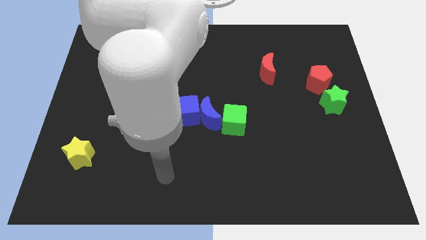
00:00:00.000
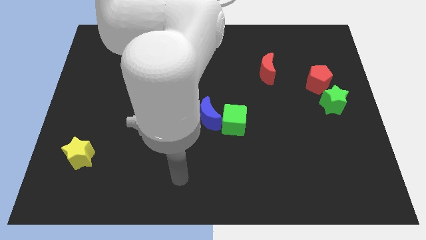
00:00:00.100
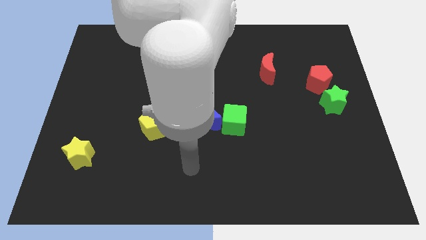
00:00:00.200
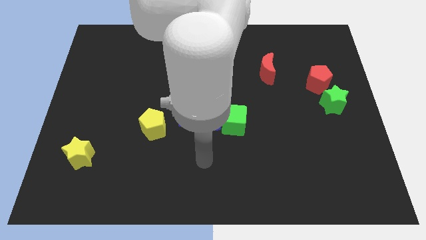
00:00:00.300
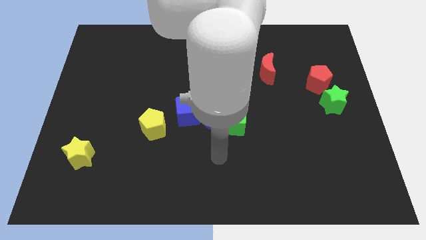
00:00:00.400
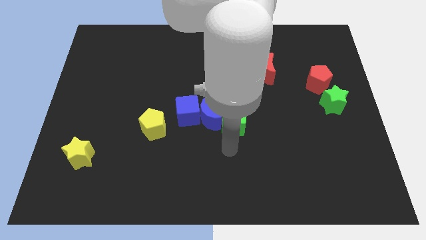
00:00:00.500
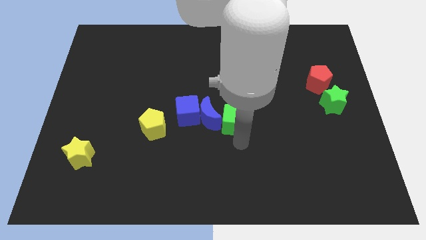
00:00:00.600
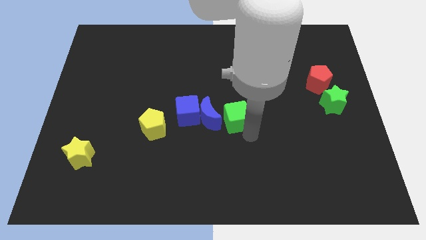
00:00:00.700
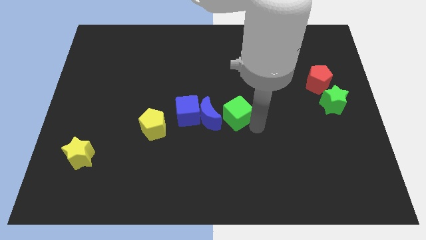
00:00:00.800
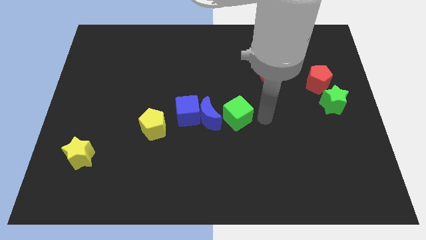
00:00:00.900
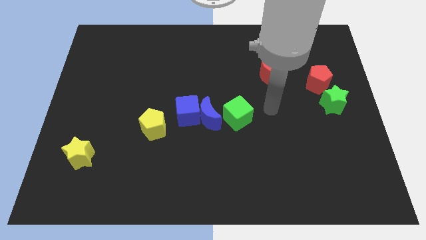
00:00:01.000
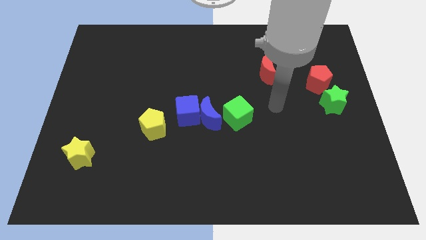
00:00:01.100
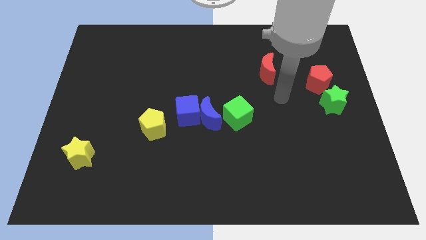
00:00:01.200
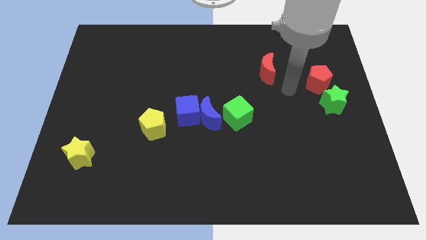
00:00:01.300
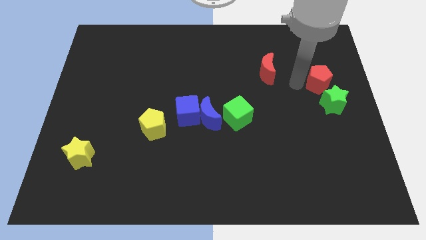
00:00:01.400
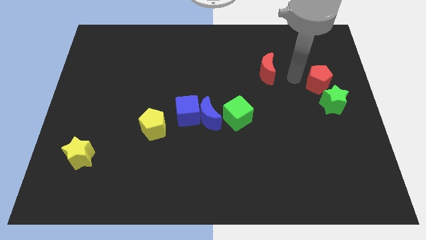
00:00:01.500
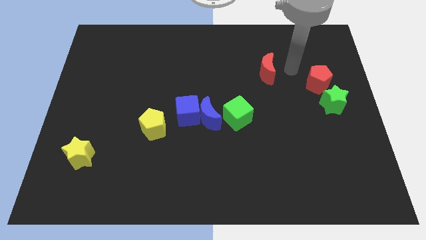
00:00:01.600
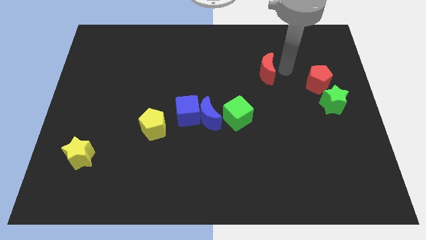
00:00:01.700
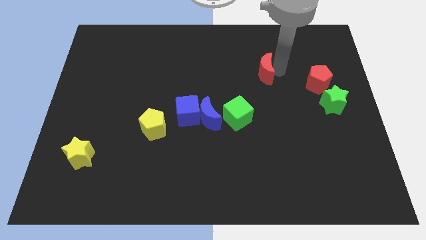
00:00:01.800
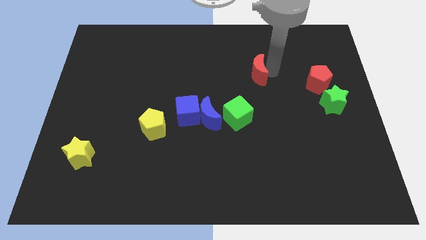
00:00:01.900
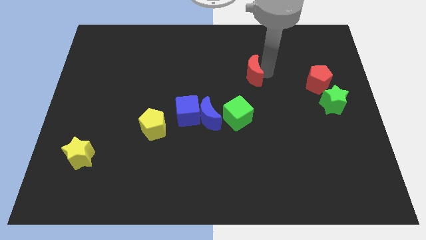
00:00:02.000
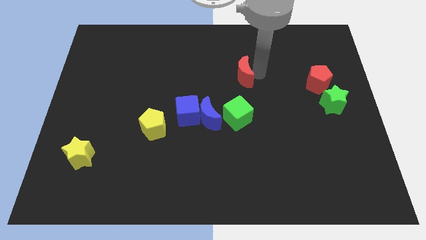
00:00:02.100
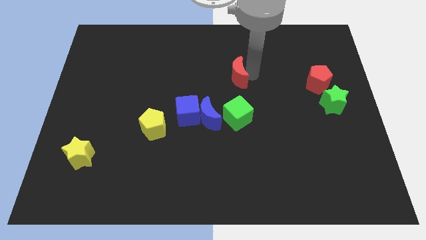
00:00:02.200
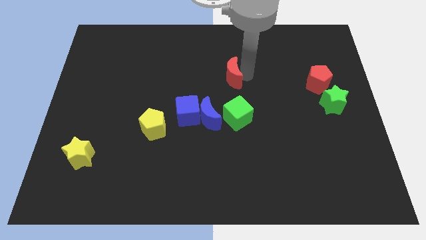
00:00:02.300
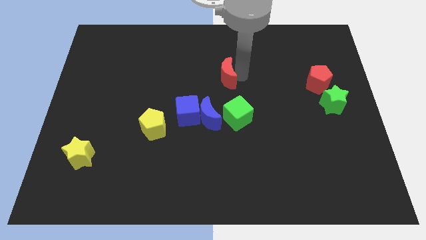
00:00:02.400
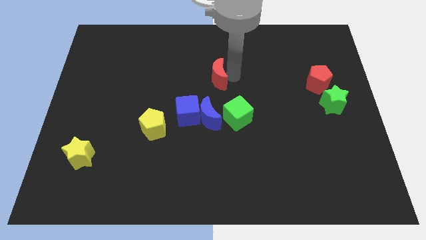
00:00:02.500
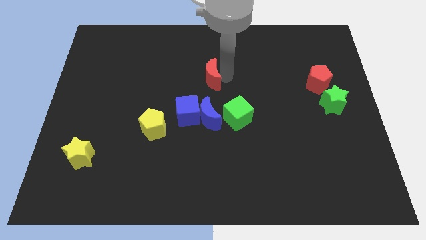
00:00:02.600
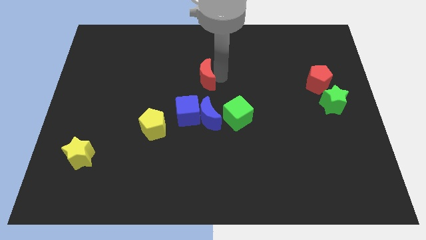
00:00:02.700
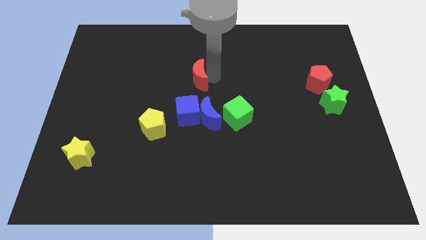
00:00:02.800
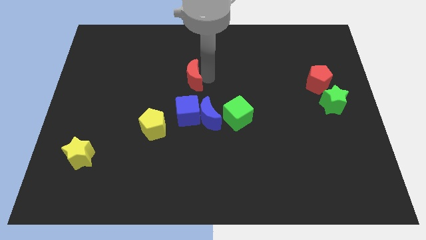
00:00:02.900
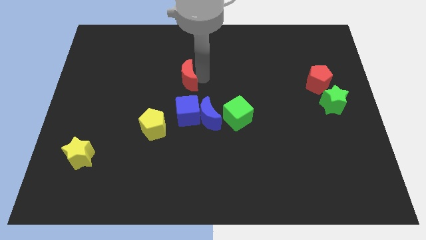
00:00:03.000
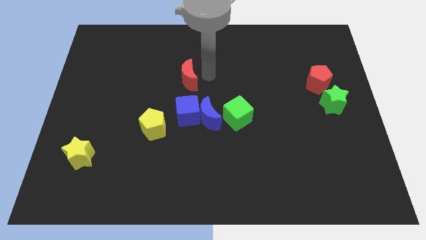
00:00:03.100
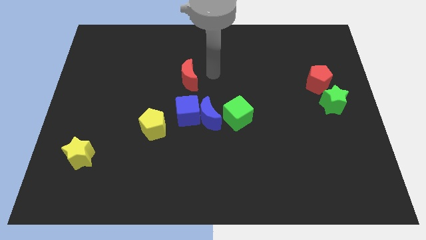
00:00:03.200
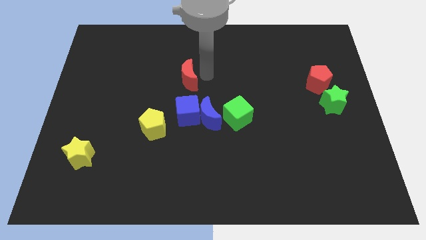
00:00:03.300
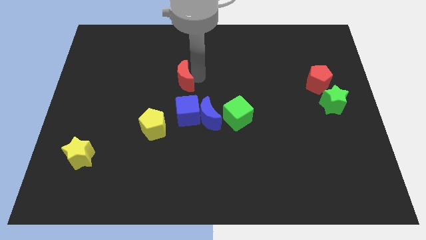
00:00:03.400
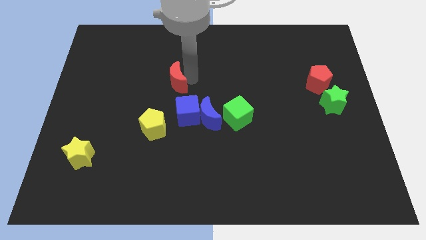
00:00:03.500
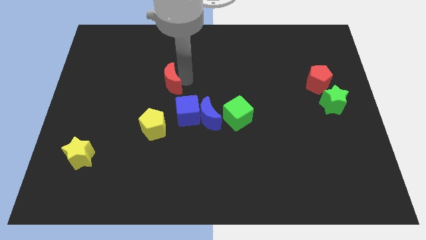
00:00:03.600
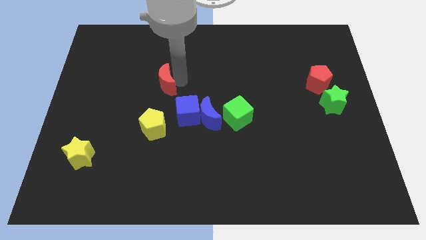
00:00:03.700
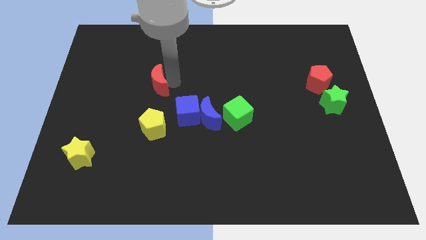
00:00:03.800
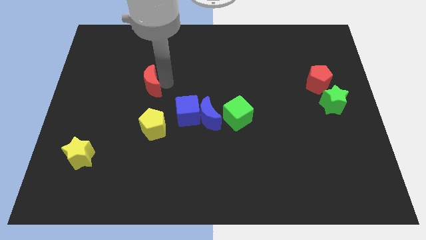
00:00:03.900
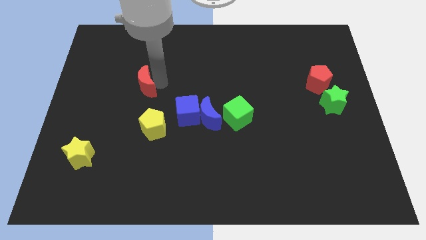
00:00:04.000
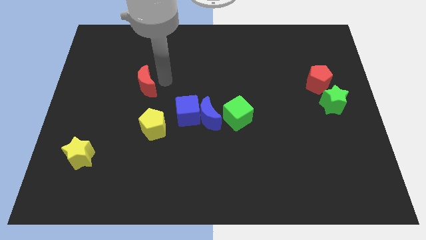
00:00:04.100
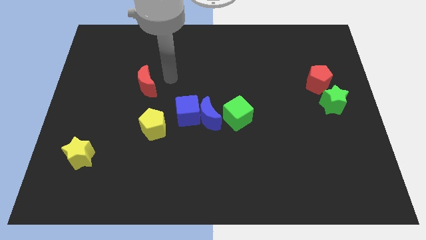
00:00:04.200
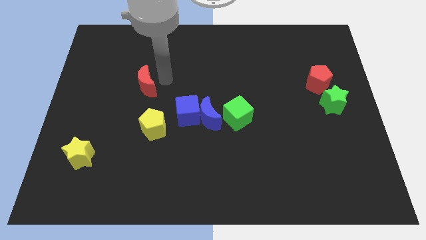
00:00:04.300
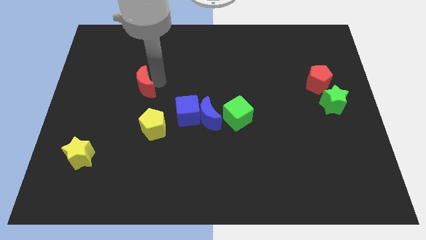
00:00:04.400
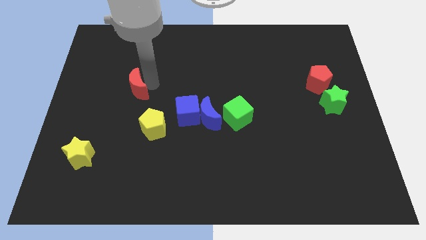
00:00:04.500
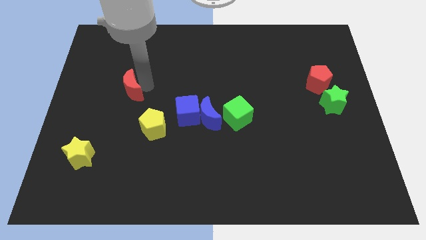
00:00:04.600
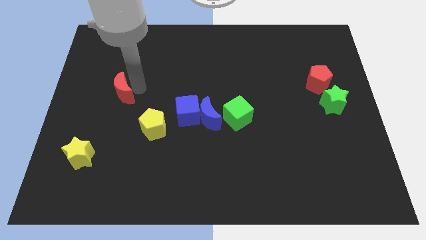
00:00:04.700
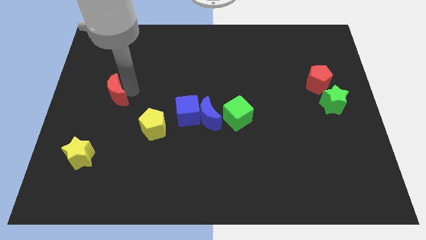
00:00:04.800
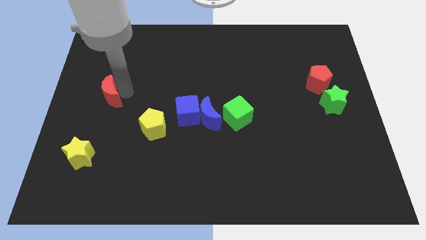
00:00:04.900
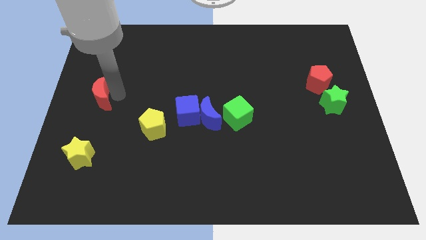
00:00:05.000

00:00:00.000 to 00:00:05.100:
put the red moon to the left side
